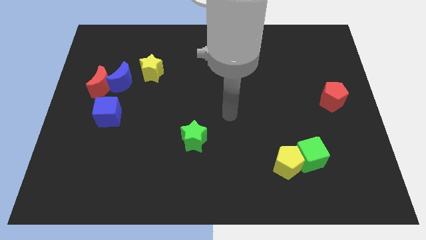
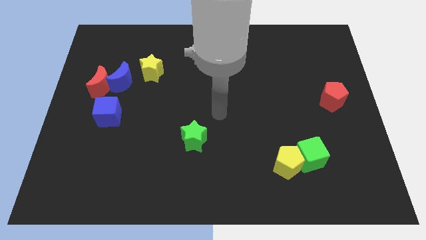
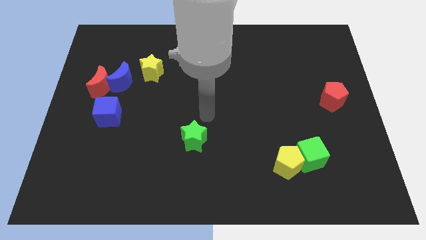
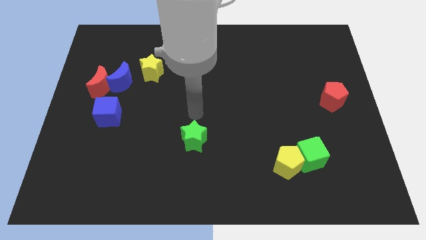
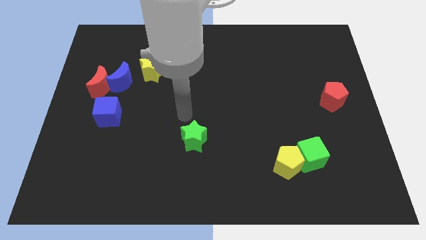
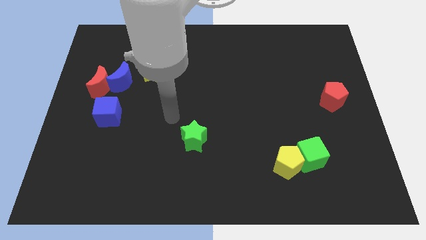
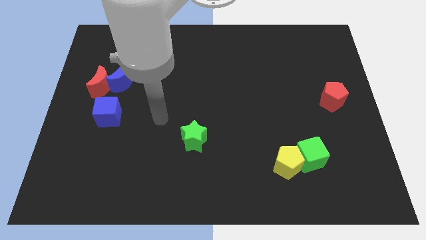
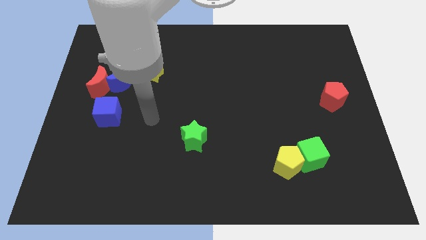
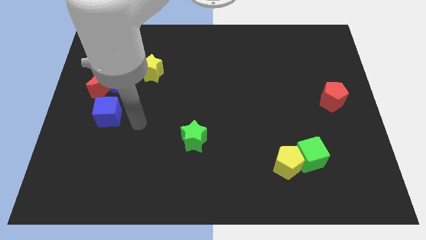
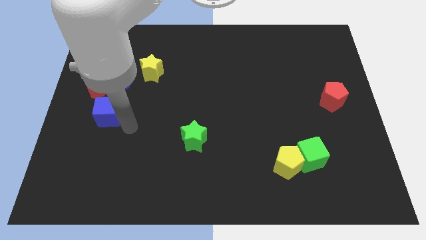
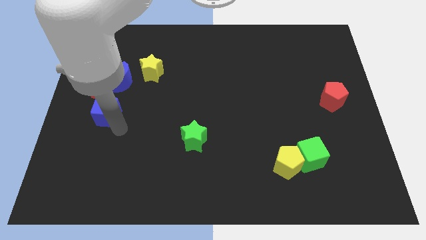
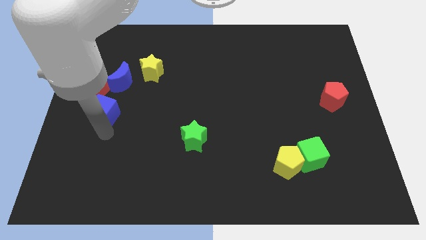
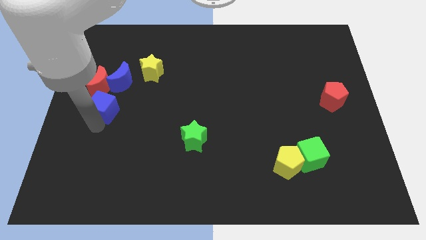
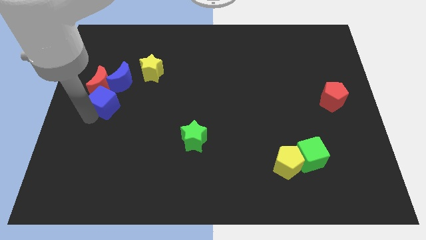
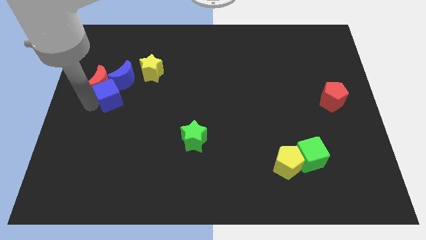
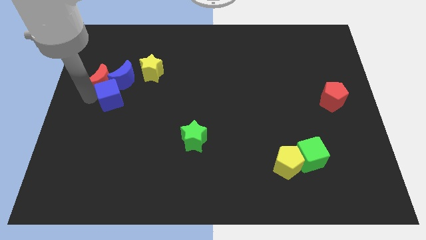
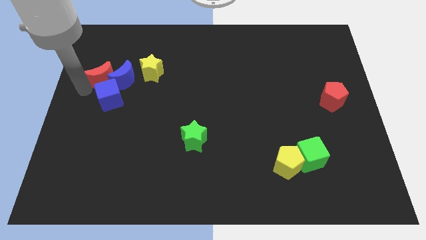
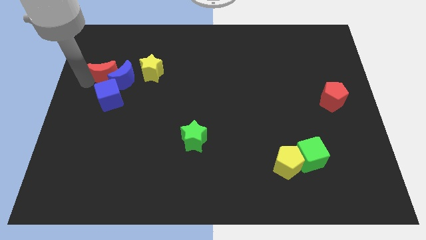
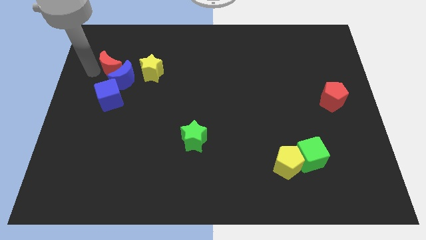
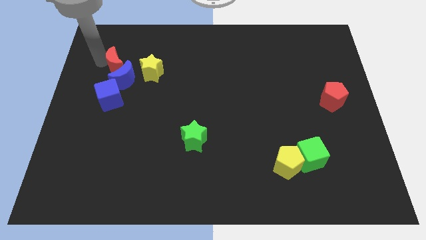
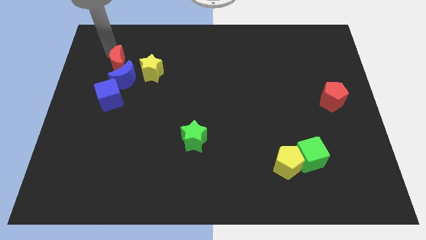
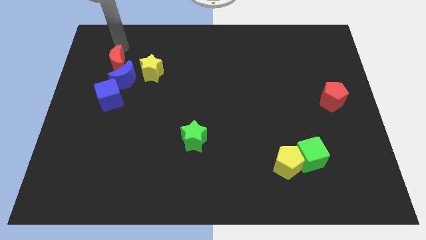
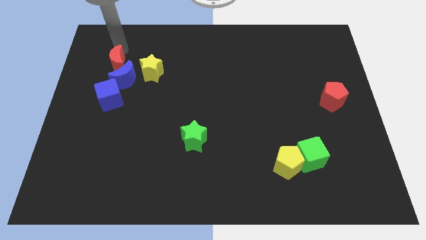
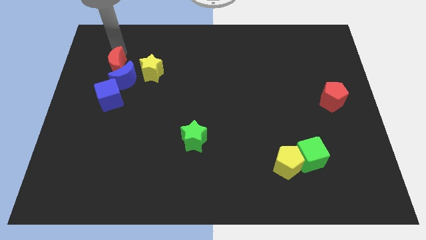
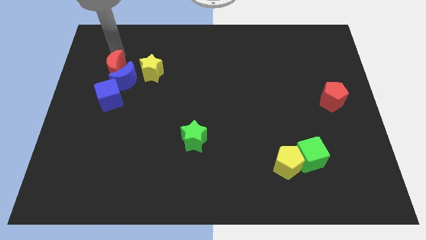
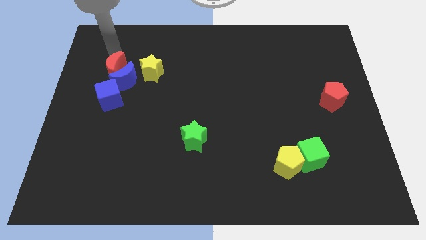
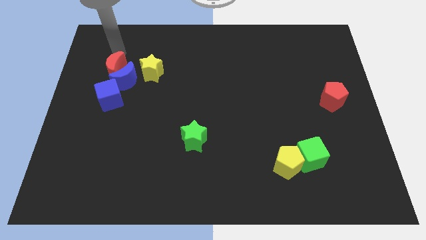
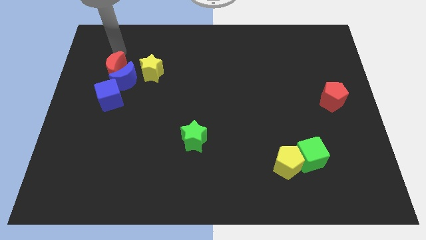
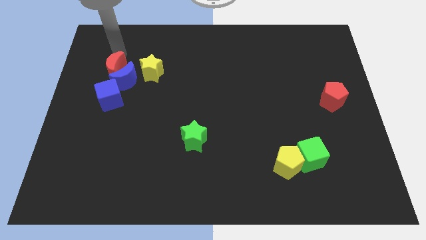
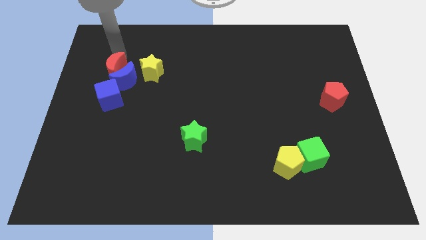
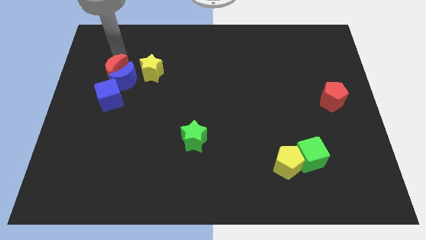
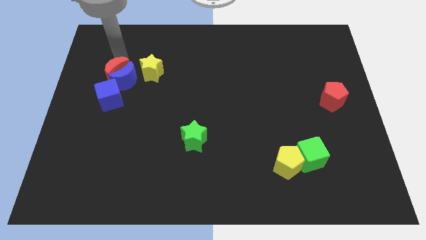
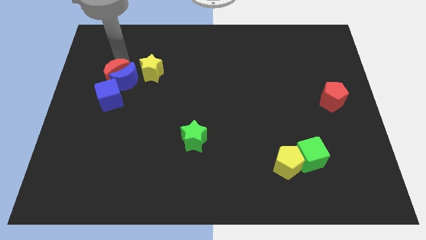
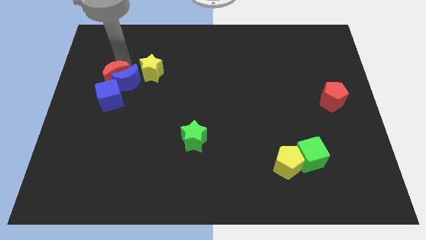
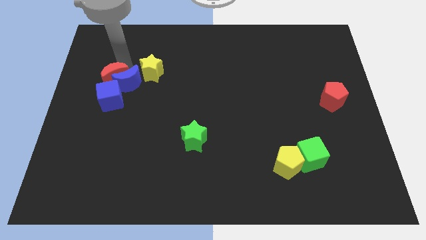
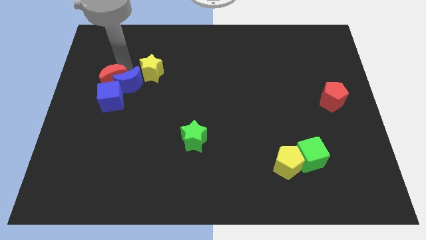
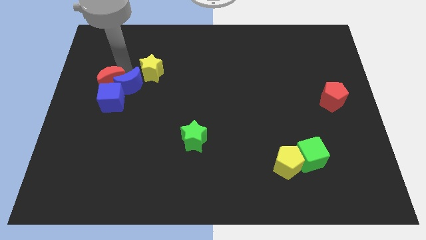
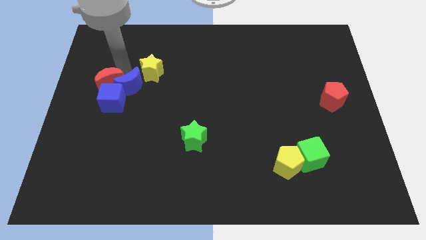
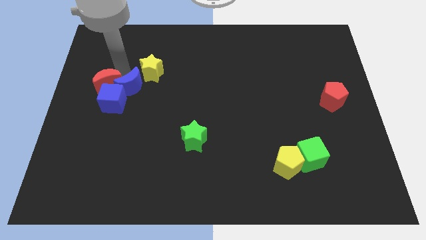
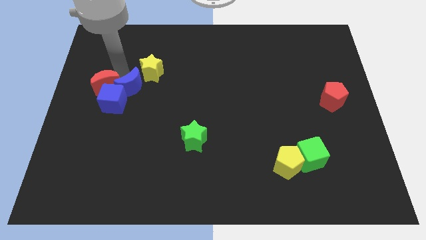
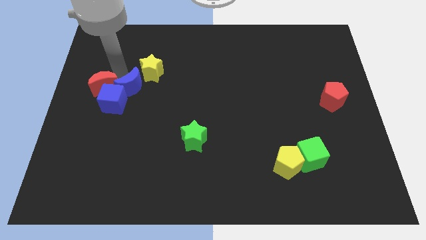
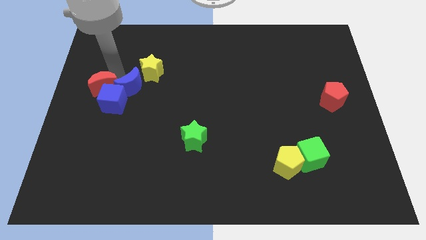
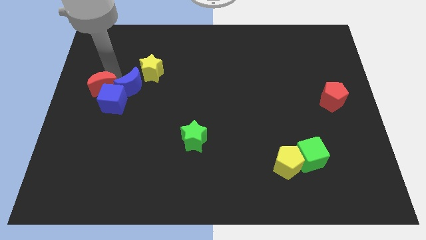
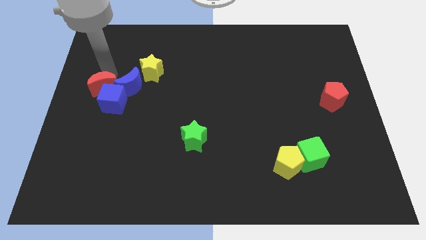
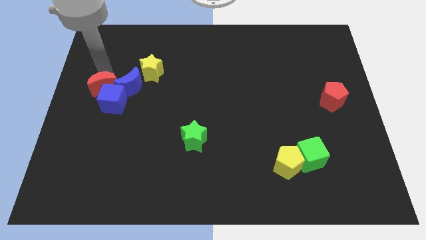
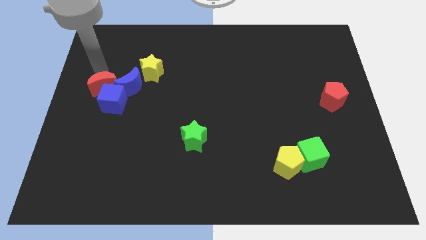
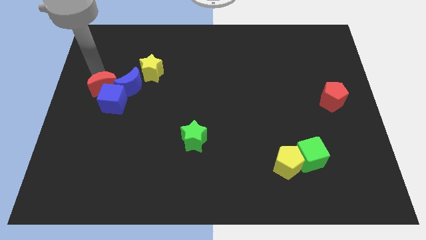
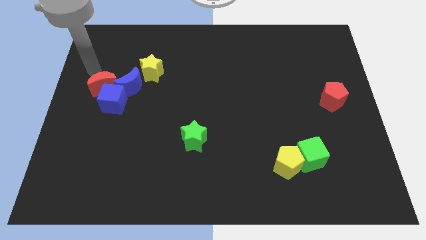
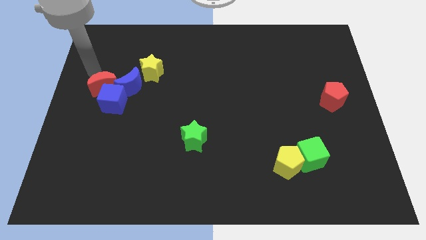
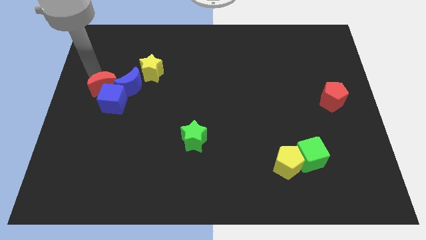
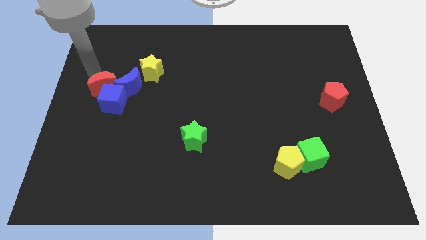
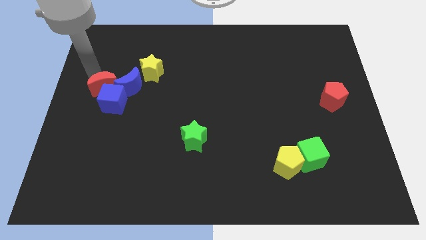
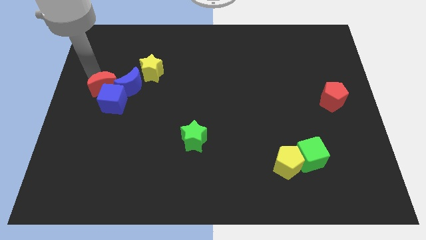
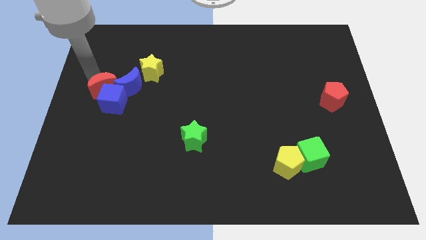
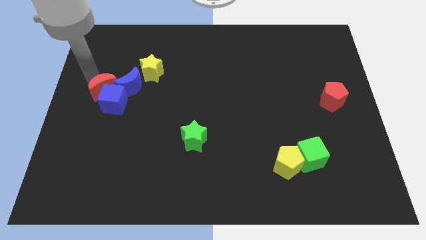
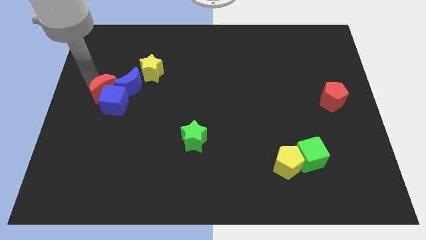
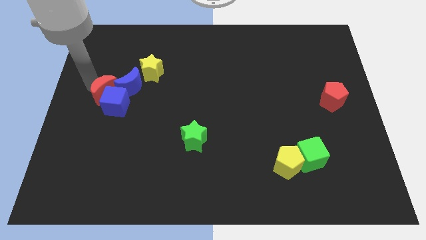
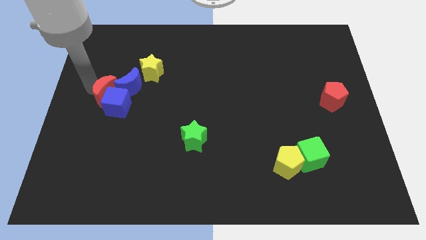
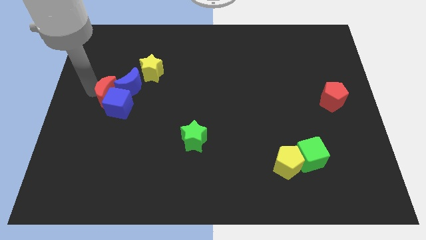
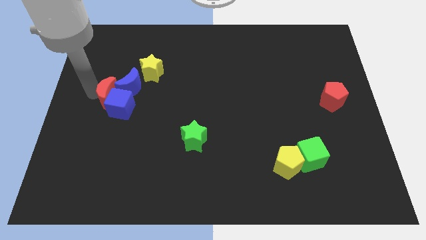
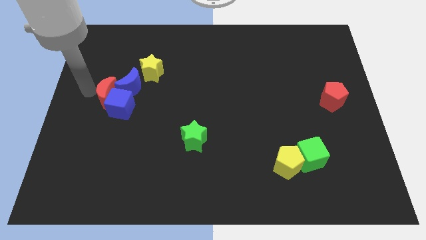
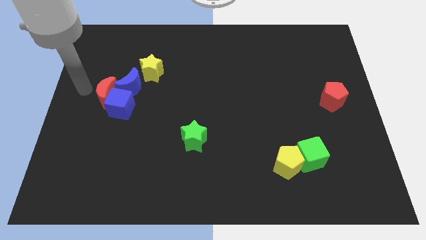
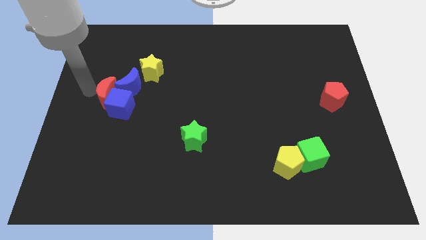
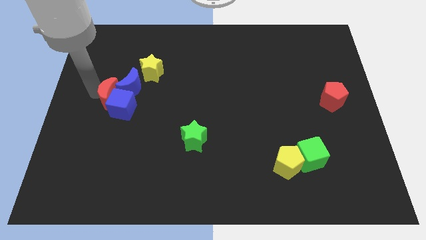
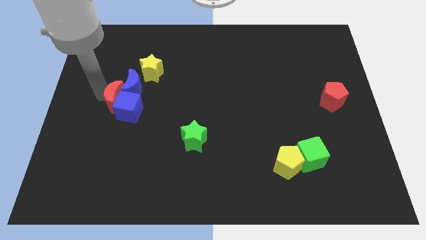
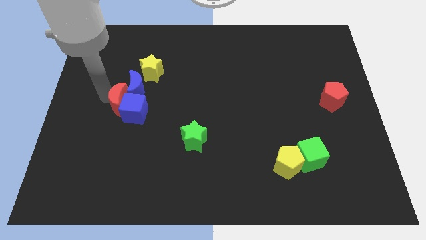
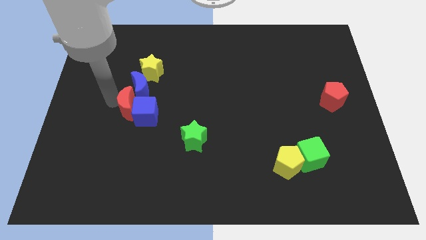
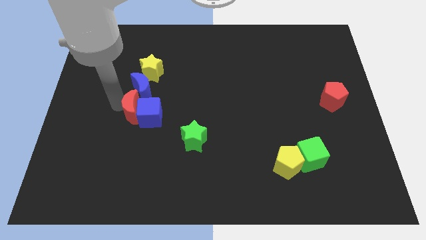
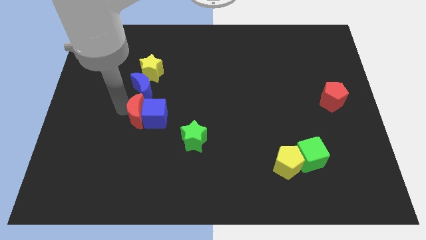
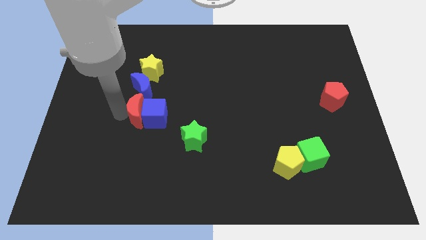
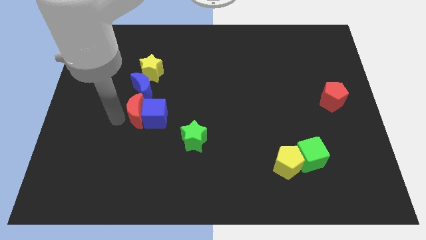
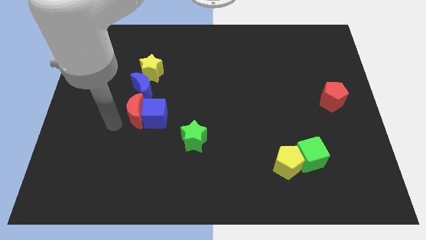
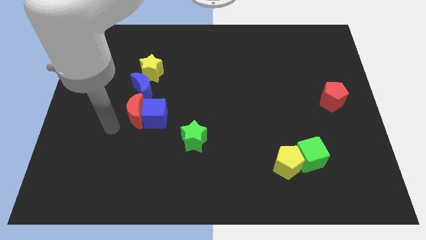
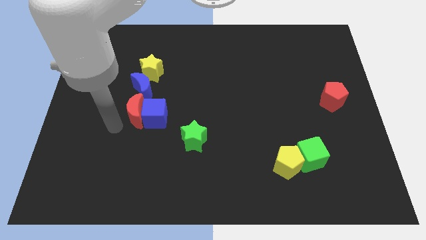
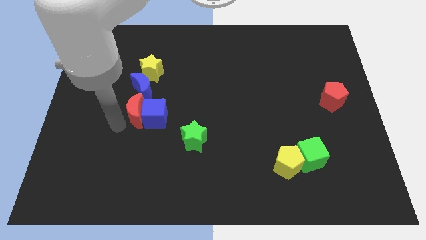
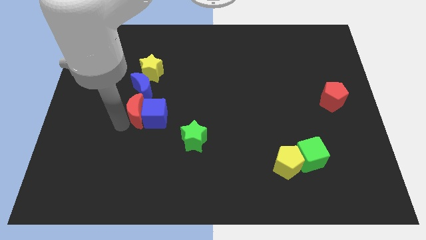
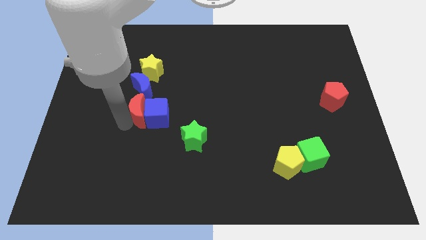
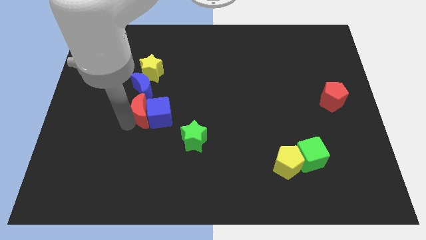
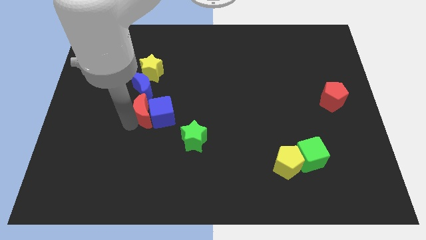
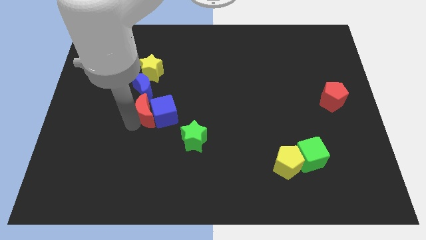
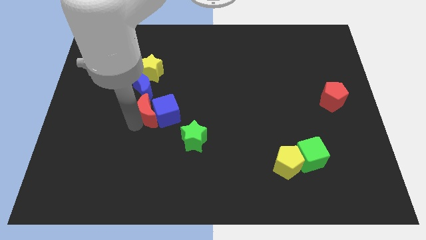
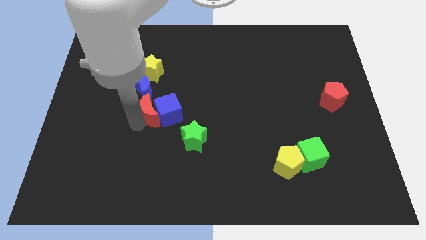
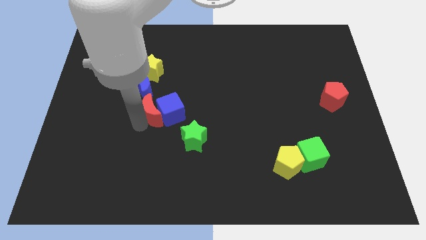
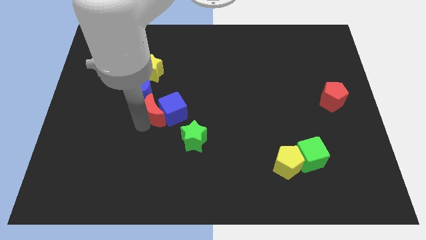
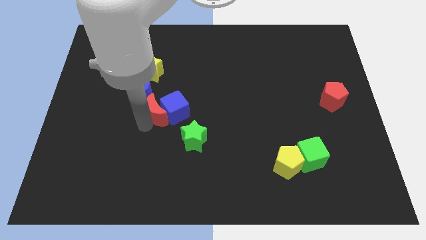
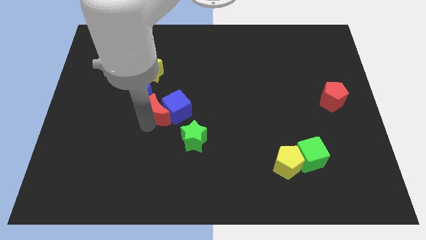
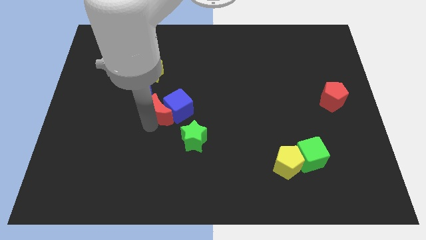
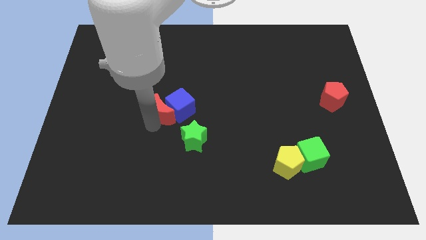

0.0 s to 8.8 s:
slide the red moon to the middle of the board
